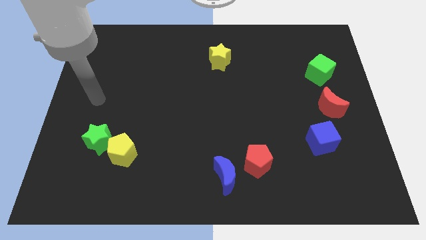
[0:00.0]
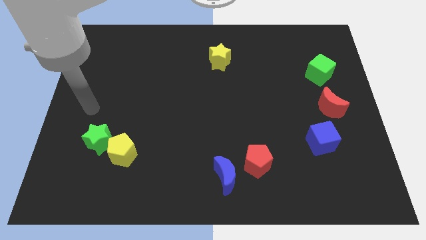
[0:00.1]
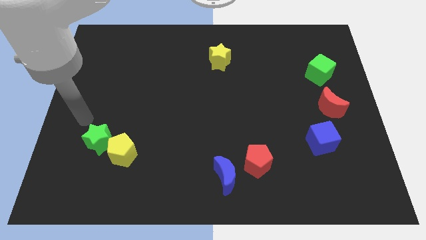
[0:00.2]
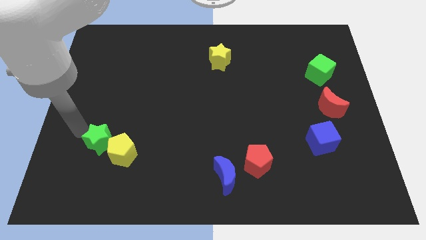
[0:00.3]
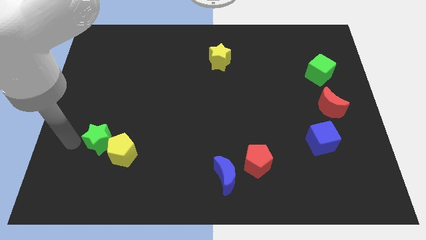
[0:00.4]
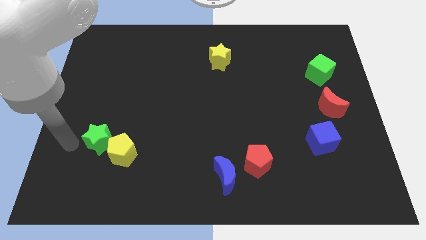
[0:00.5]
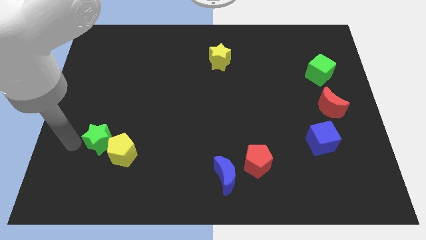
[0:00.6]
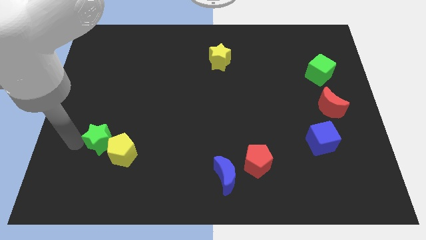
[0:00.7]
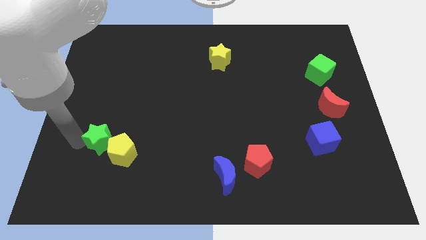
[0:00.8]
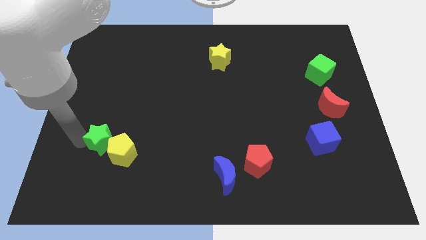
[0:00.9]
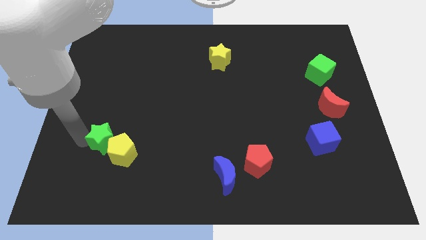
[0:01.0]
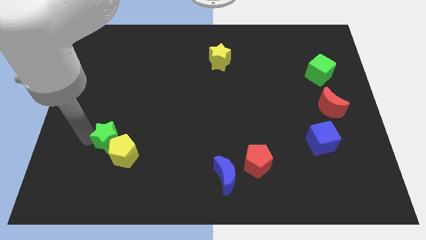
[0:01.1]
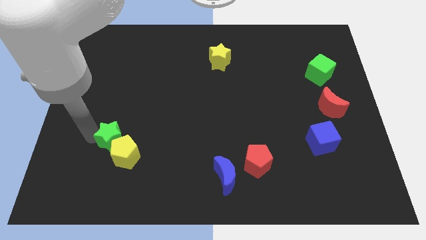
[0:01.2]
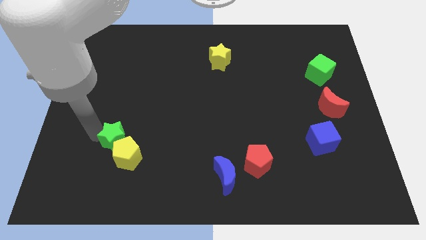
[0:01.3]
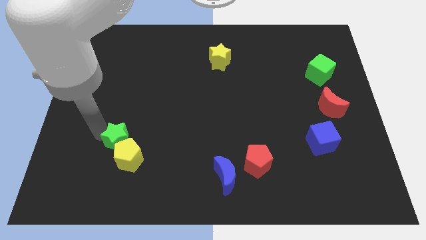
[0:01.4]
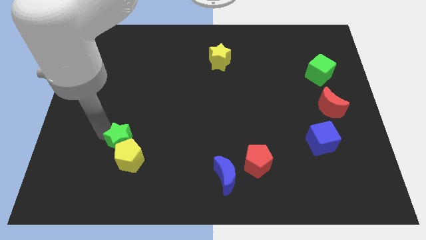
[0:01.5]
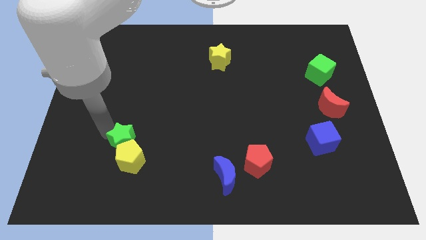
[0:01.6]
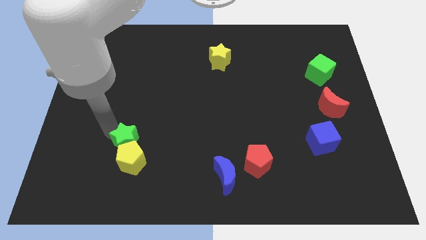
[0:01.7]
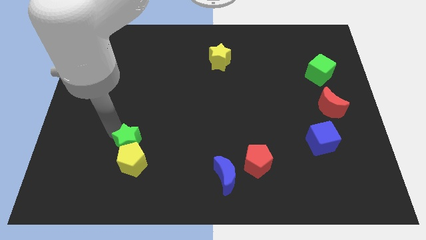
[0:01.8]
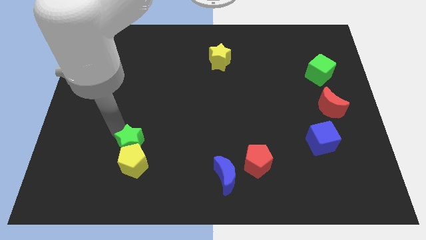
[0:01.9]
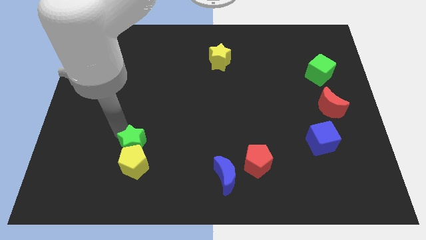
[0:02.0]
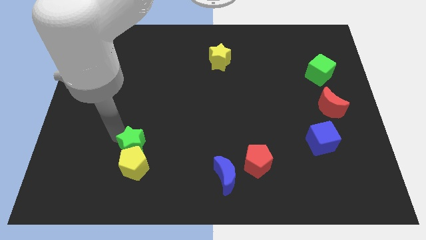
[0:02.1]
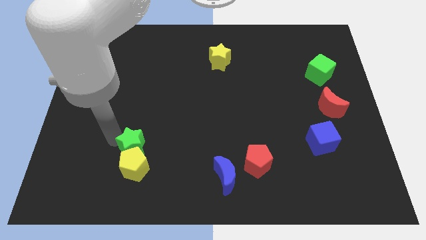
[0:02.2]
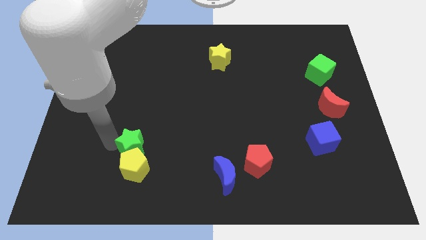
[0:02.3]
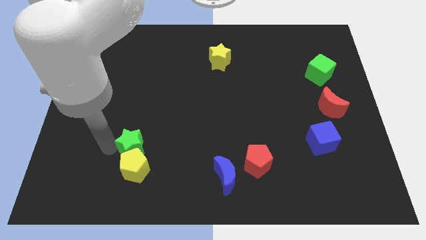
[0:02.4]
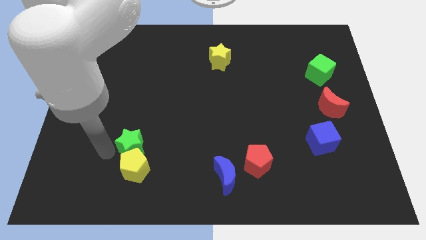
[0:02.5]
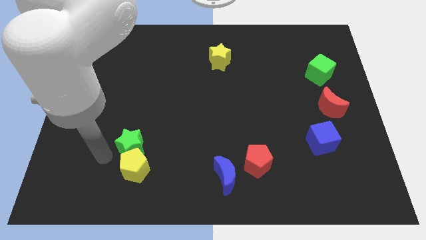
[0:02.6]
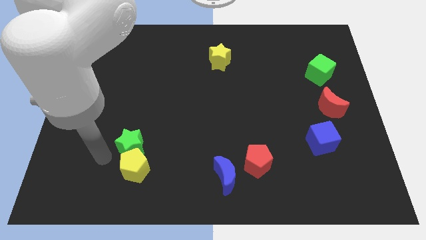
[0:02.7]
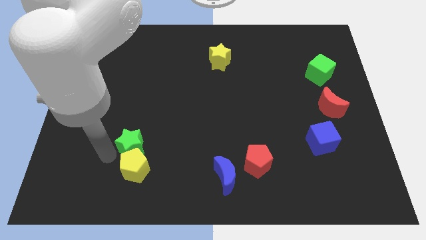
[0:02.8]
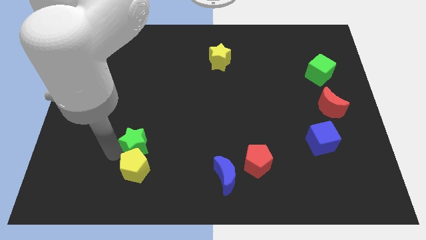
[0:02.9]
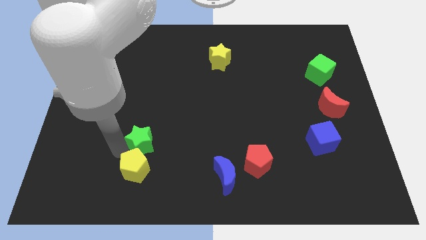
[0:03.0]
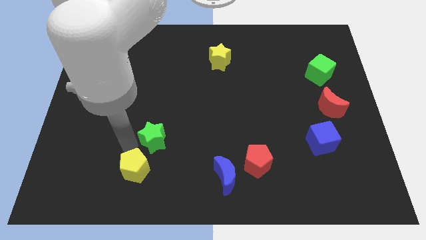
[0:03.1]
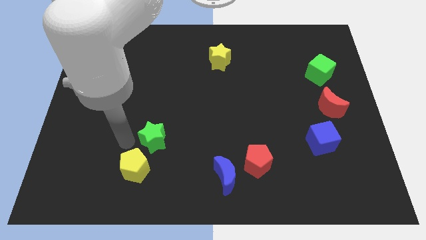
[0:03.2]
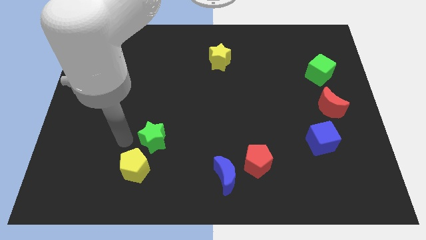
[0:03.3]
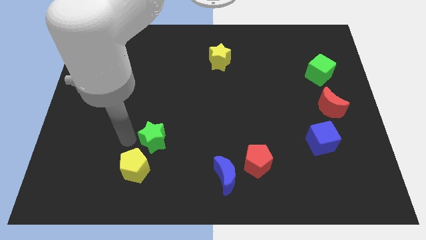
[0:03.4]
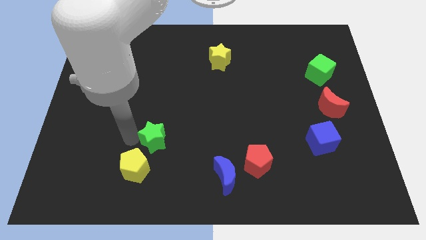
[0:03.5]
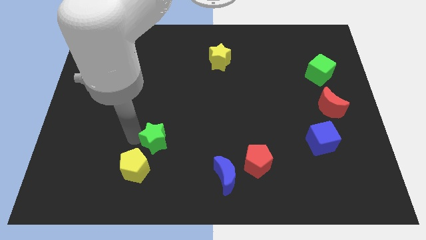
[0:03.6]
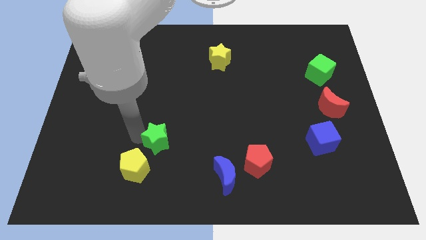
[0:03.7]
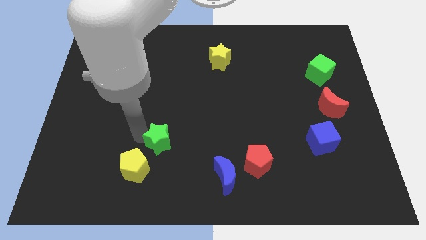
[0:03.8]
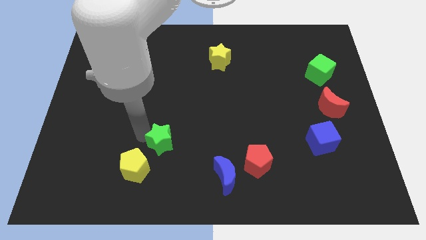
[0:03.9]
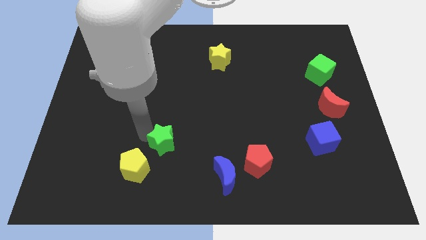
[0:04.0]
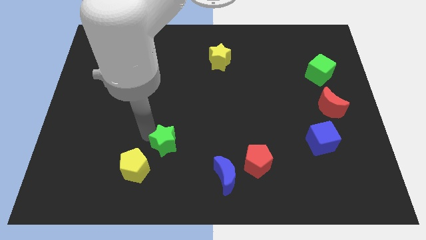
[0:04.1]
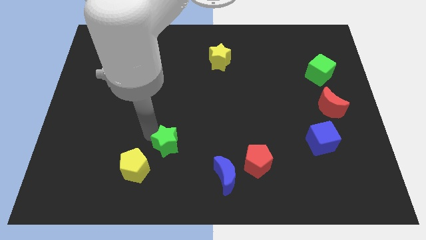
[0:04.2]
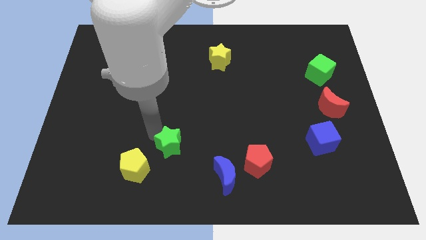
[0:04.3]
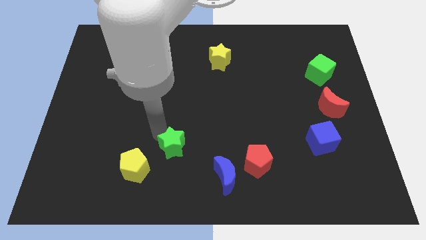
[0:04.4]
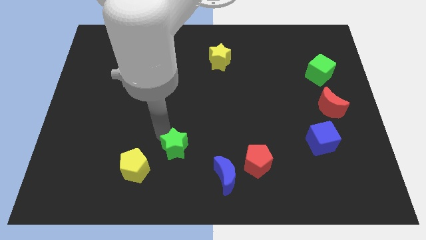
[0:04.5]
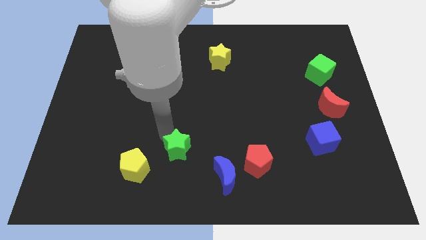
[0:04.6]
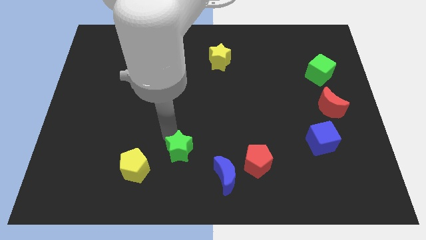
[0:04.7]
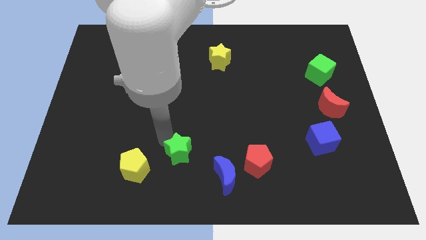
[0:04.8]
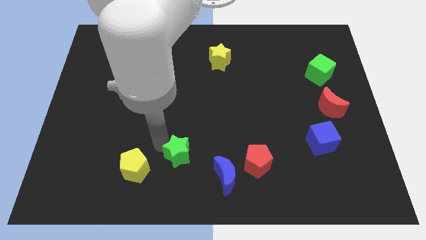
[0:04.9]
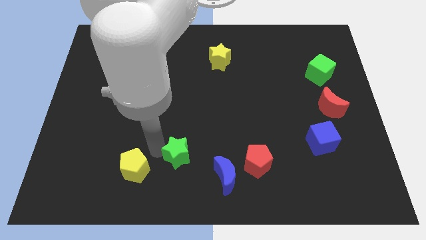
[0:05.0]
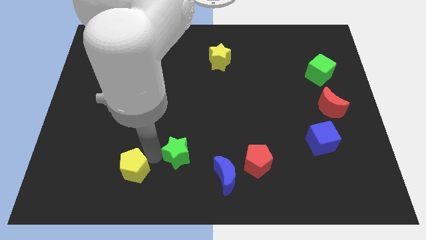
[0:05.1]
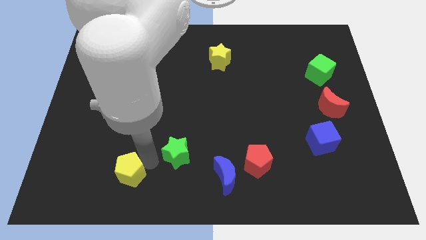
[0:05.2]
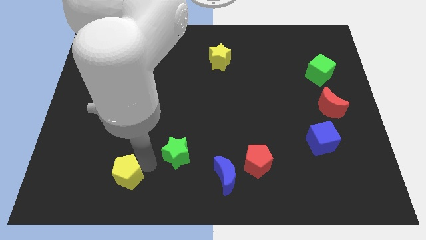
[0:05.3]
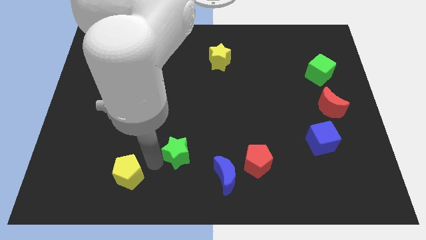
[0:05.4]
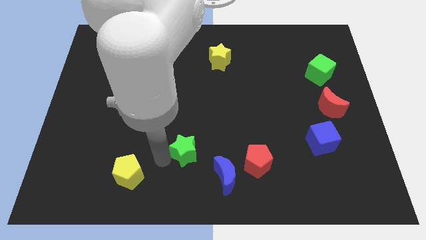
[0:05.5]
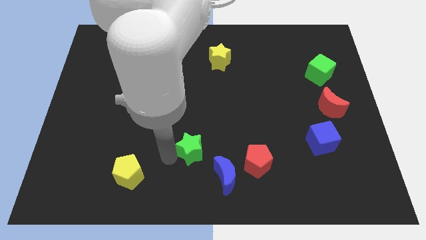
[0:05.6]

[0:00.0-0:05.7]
push the green star to the right

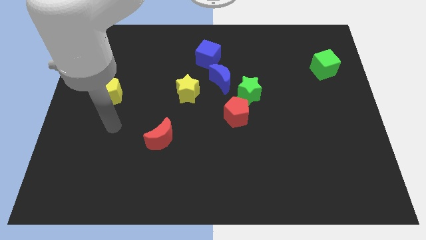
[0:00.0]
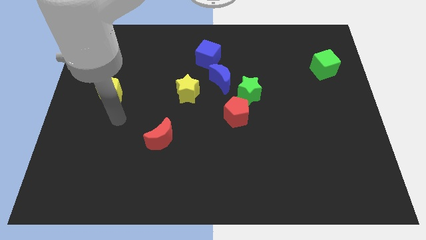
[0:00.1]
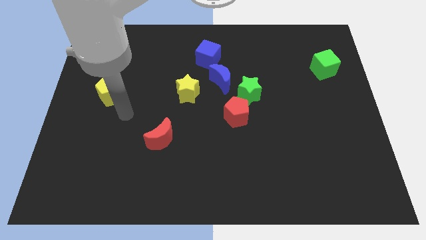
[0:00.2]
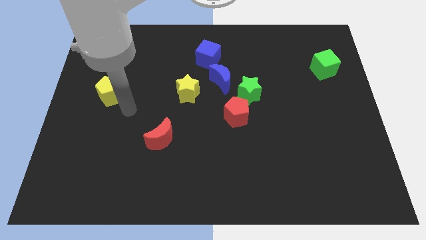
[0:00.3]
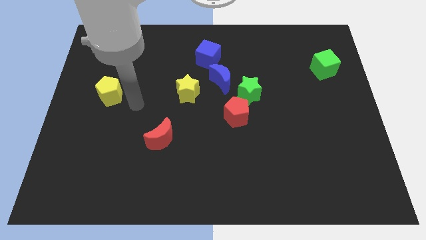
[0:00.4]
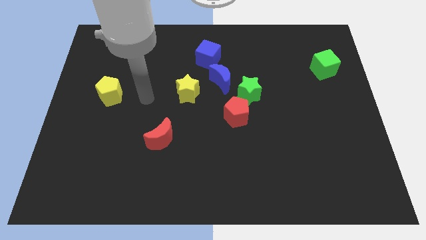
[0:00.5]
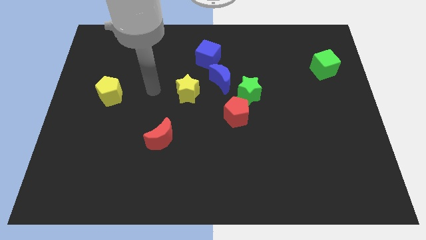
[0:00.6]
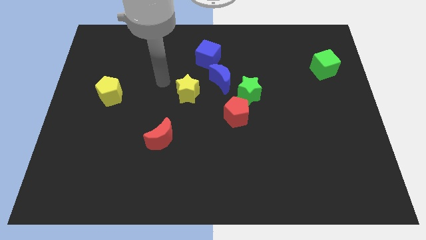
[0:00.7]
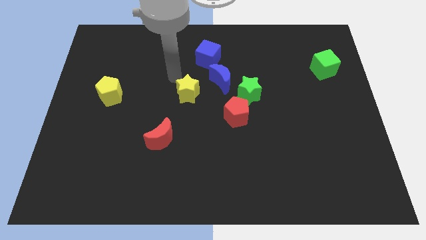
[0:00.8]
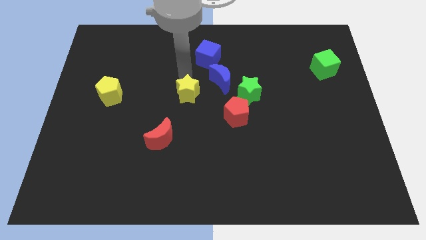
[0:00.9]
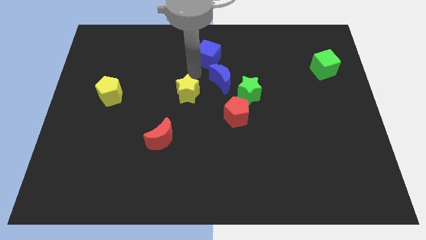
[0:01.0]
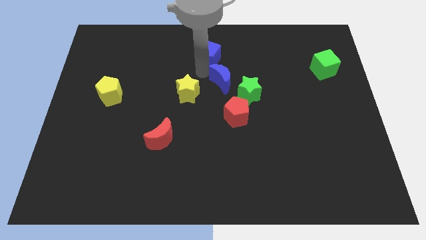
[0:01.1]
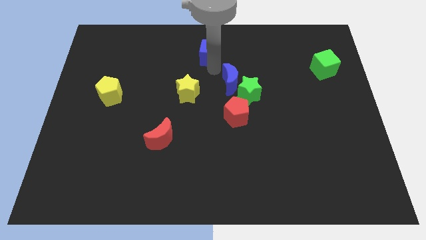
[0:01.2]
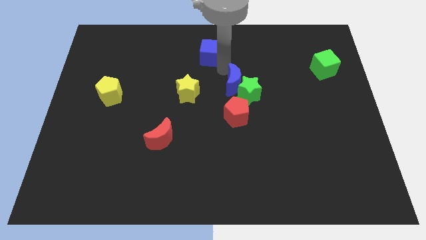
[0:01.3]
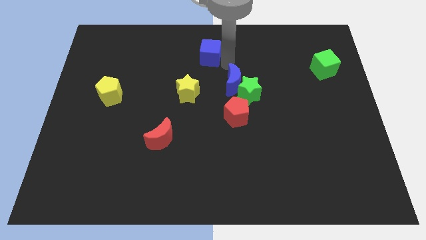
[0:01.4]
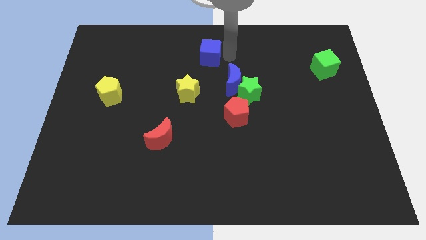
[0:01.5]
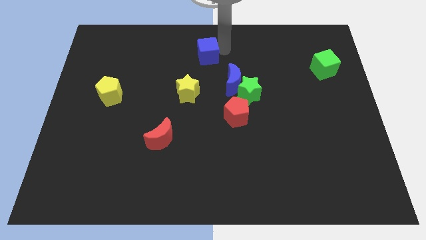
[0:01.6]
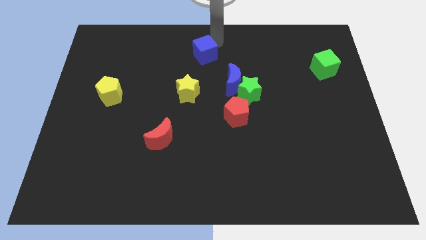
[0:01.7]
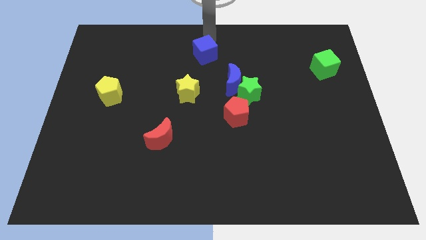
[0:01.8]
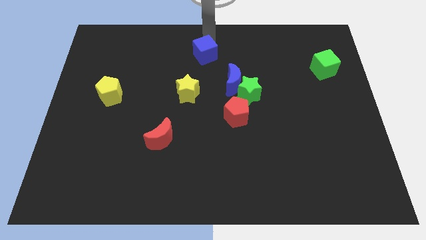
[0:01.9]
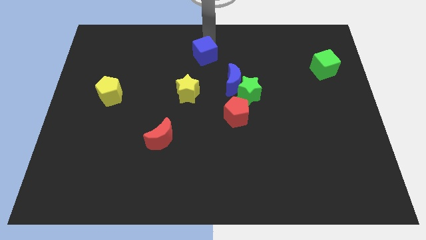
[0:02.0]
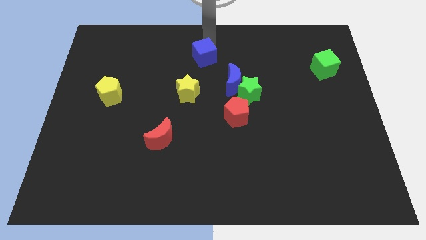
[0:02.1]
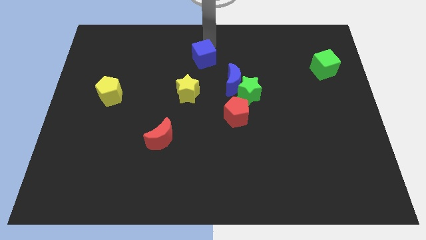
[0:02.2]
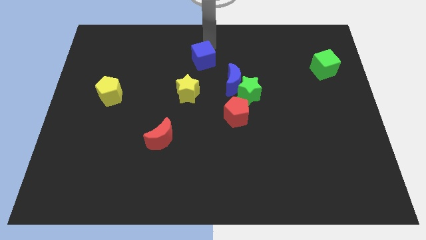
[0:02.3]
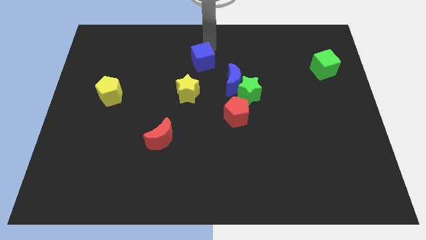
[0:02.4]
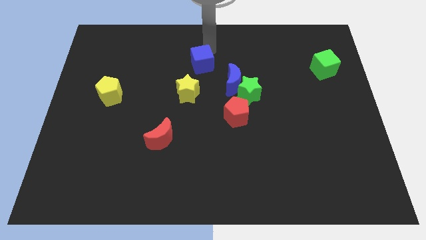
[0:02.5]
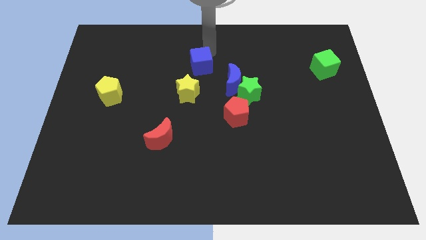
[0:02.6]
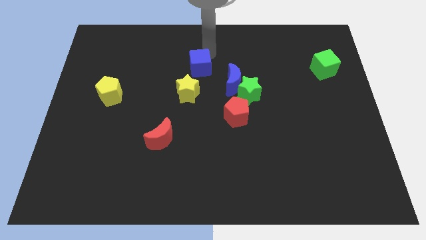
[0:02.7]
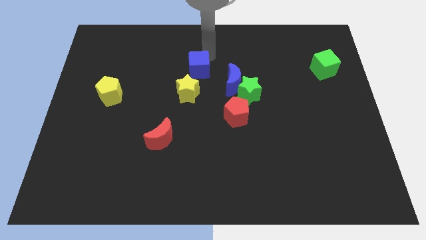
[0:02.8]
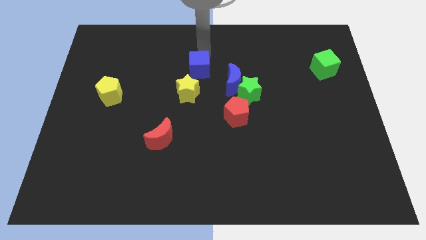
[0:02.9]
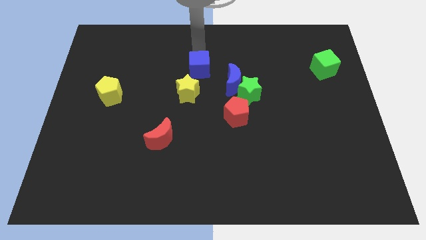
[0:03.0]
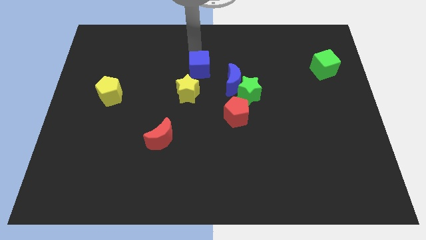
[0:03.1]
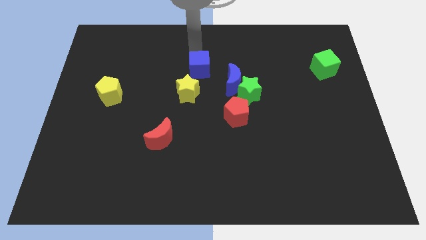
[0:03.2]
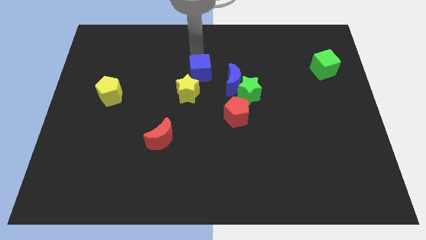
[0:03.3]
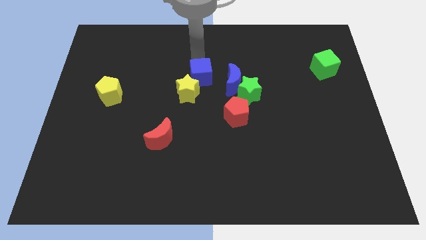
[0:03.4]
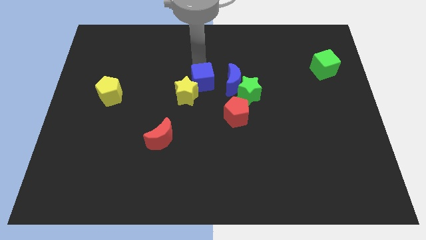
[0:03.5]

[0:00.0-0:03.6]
push the blue cube down a little
